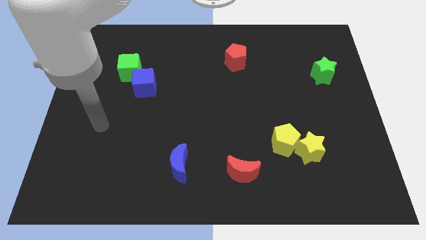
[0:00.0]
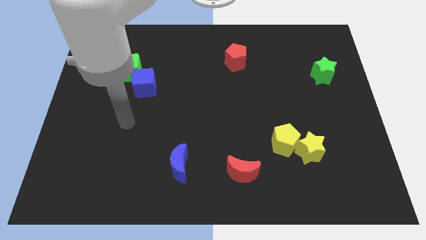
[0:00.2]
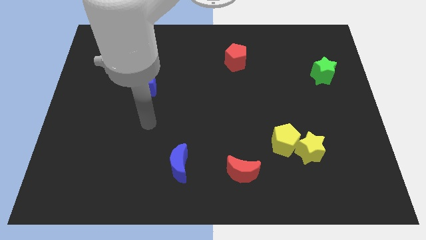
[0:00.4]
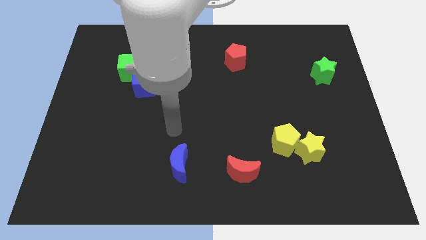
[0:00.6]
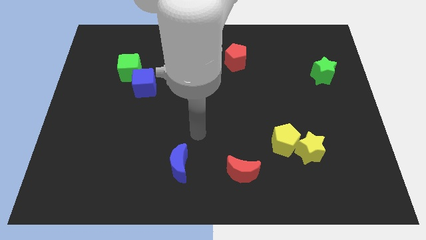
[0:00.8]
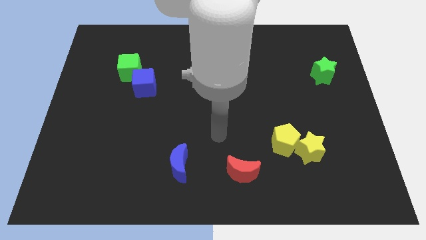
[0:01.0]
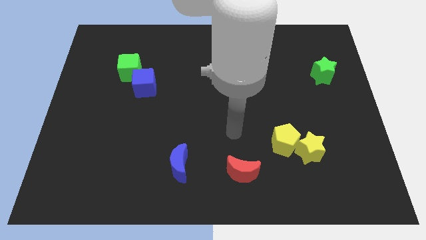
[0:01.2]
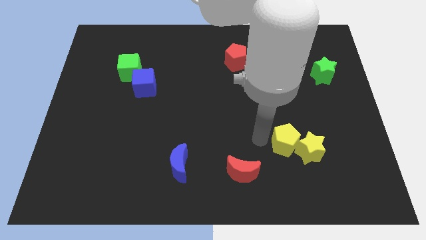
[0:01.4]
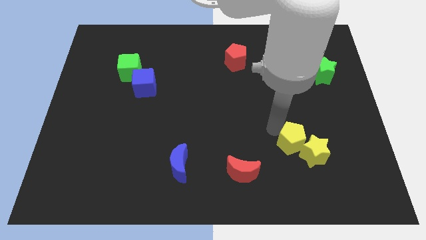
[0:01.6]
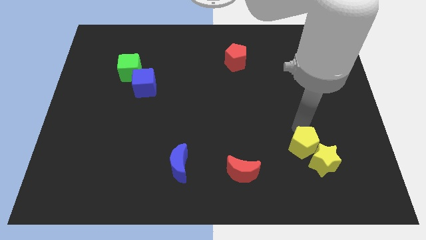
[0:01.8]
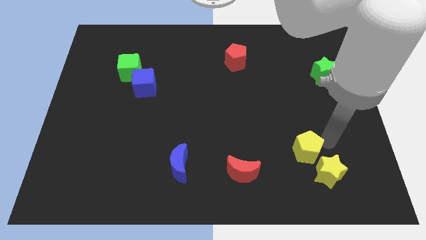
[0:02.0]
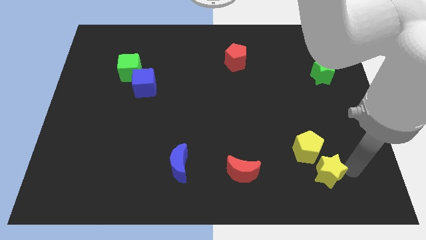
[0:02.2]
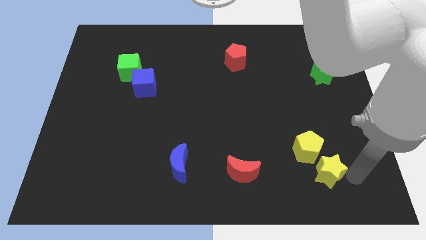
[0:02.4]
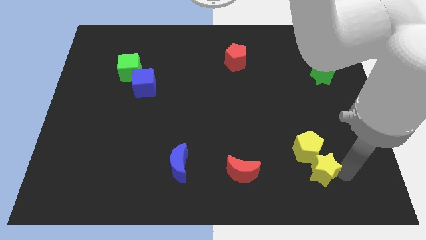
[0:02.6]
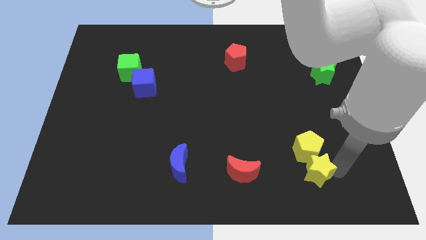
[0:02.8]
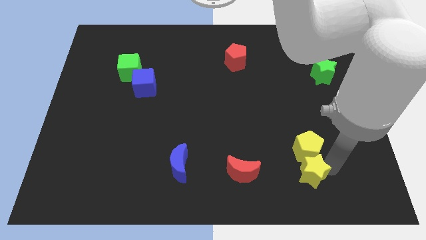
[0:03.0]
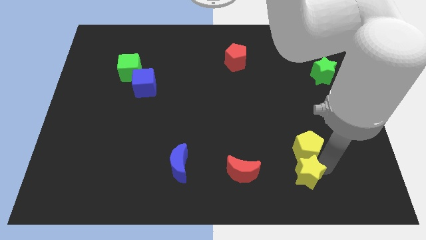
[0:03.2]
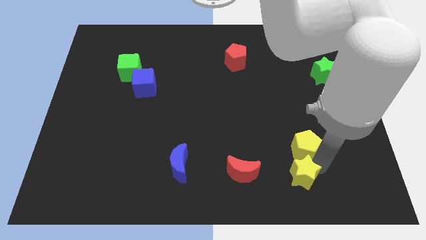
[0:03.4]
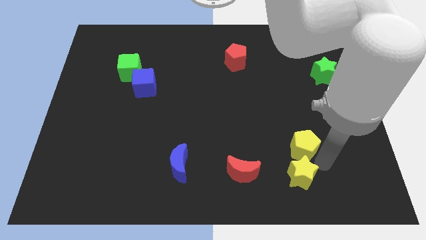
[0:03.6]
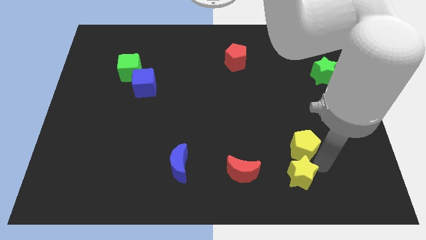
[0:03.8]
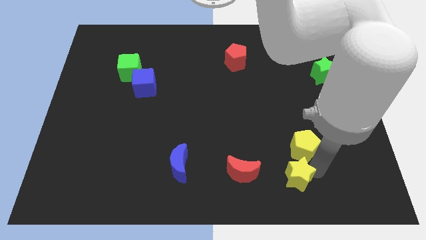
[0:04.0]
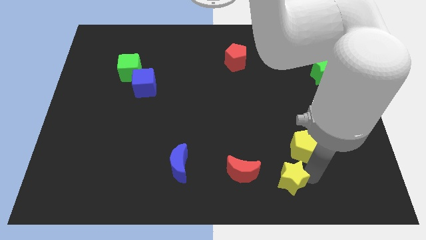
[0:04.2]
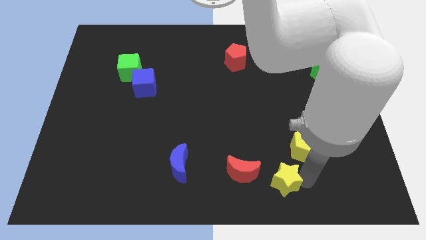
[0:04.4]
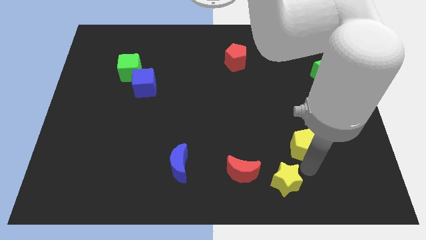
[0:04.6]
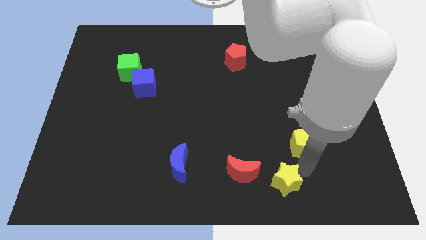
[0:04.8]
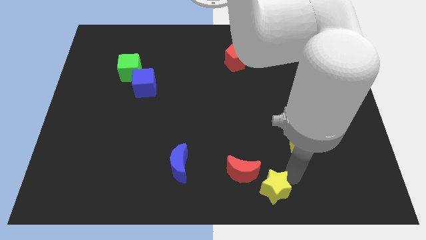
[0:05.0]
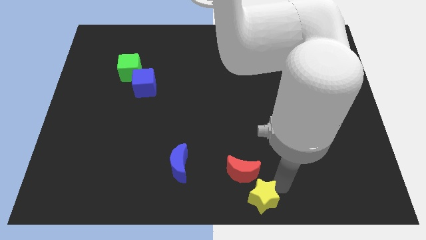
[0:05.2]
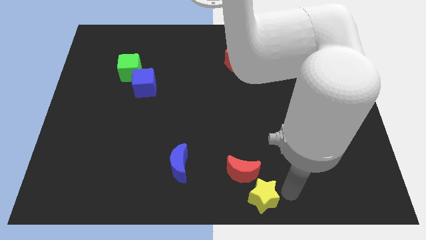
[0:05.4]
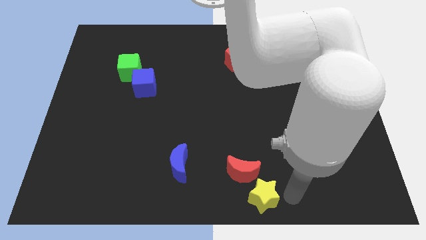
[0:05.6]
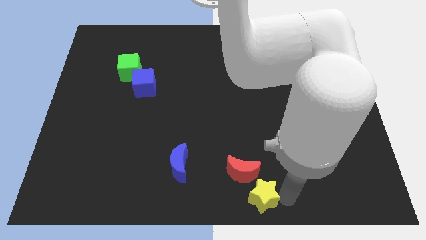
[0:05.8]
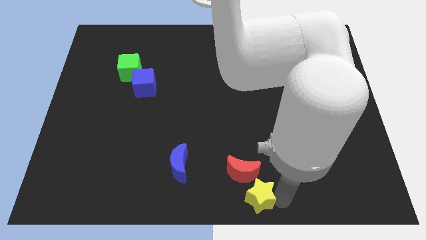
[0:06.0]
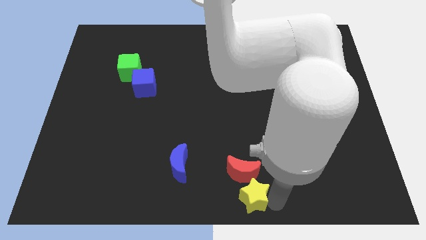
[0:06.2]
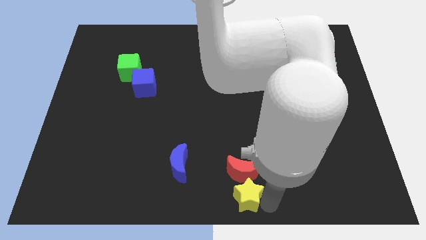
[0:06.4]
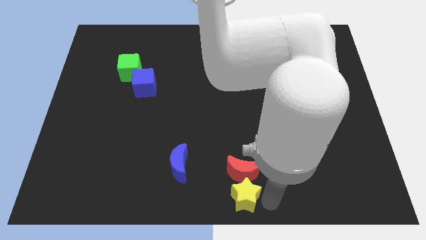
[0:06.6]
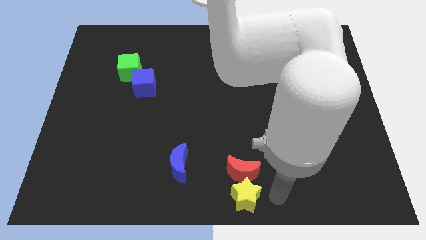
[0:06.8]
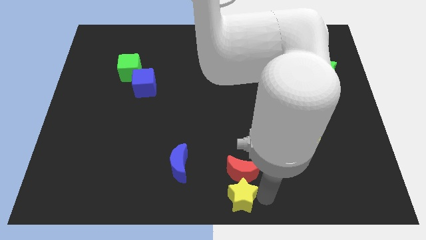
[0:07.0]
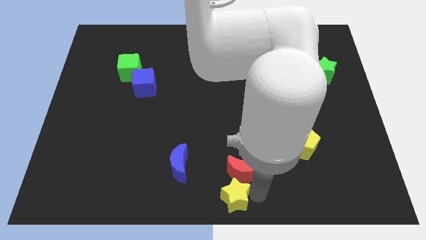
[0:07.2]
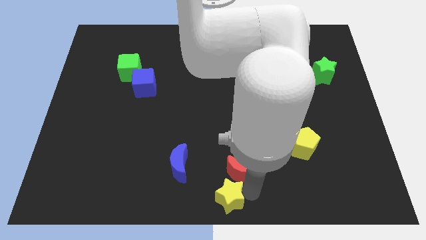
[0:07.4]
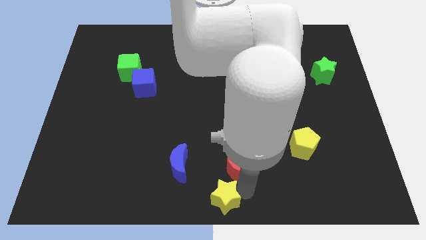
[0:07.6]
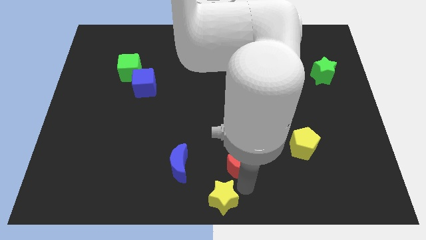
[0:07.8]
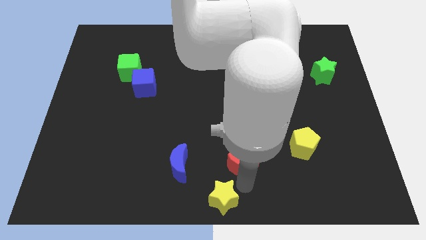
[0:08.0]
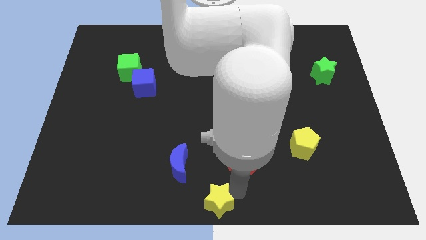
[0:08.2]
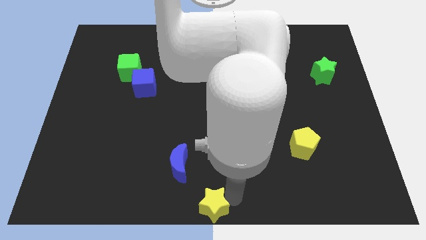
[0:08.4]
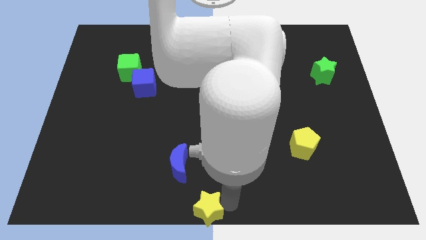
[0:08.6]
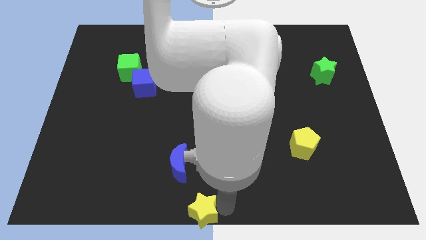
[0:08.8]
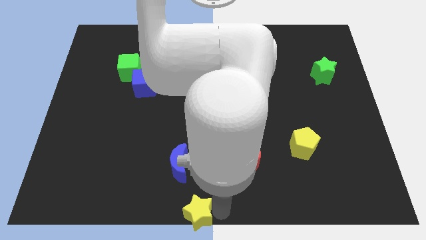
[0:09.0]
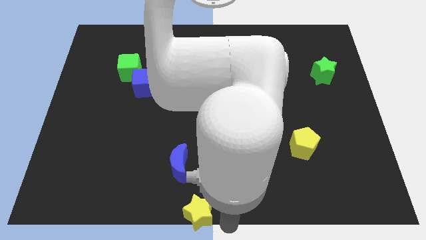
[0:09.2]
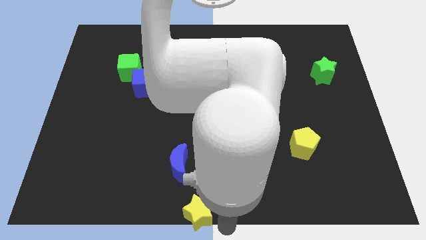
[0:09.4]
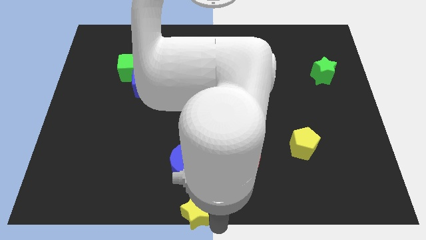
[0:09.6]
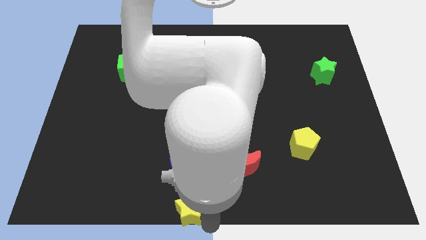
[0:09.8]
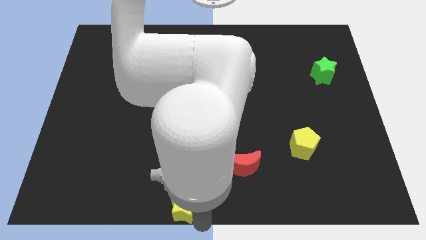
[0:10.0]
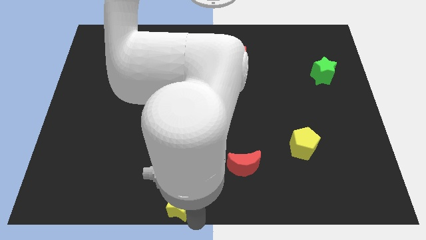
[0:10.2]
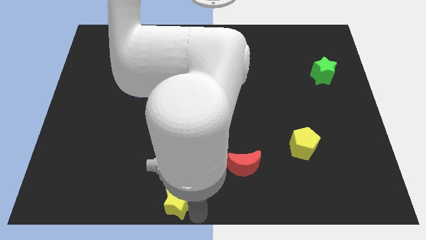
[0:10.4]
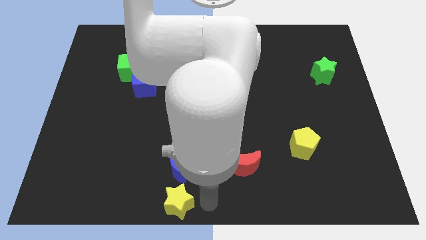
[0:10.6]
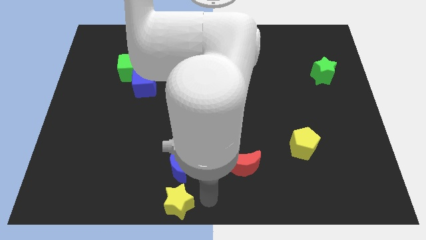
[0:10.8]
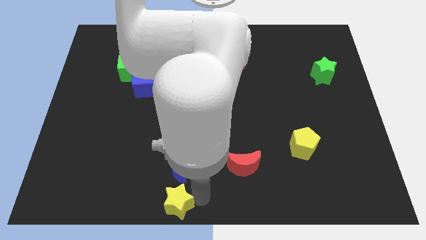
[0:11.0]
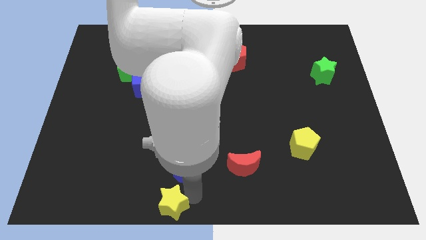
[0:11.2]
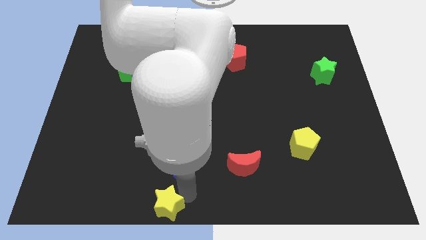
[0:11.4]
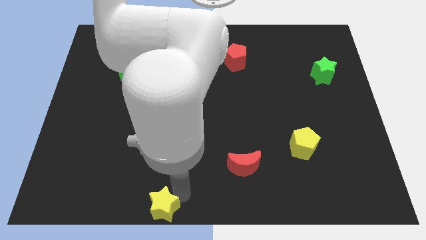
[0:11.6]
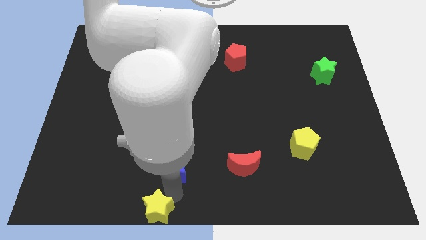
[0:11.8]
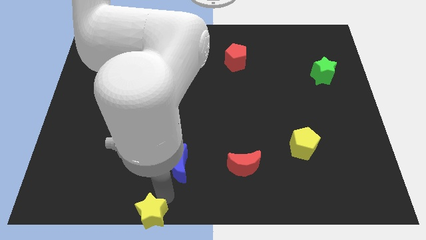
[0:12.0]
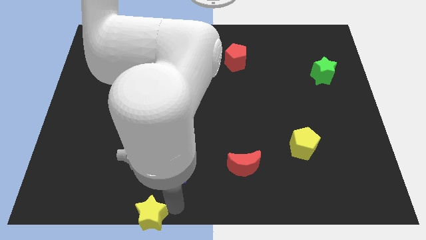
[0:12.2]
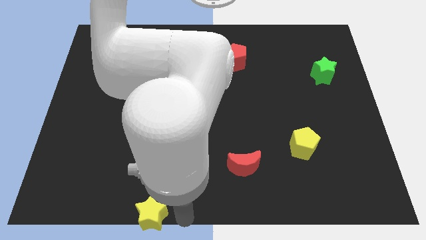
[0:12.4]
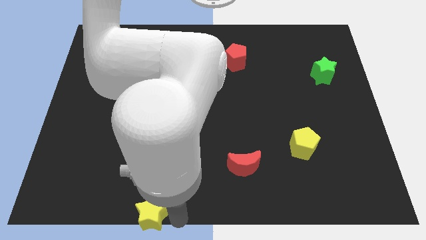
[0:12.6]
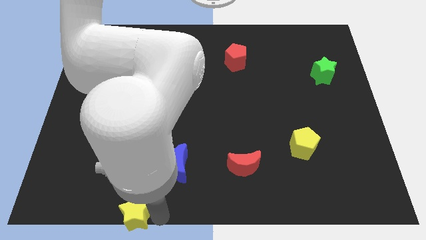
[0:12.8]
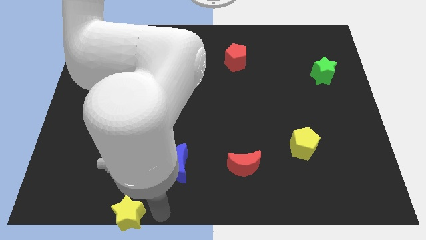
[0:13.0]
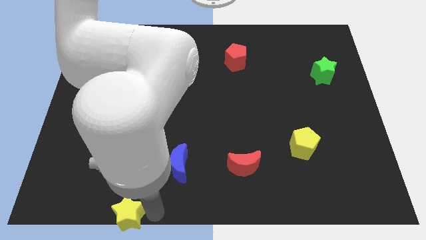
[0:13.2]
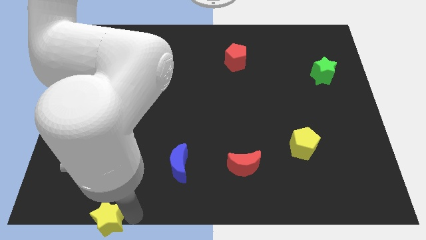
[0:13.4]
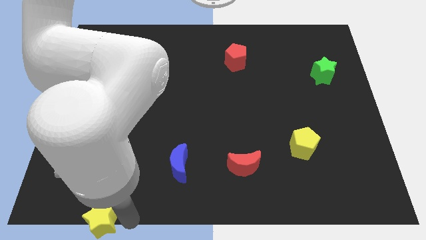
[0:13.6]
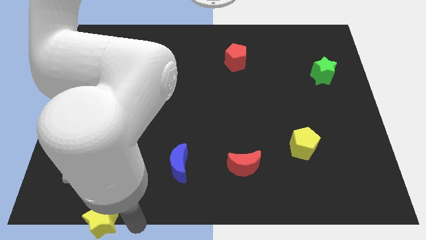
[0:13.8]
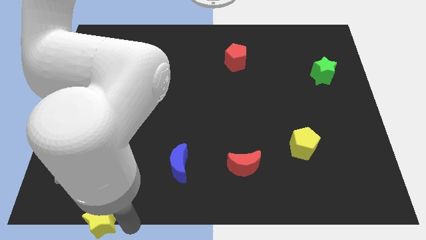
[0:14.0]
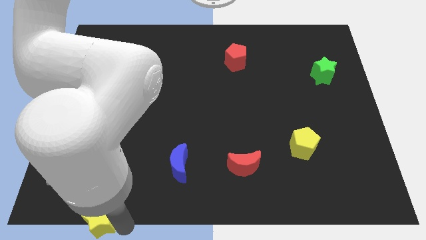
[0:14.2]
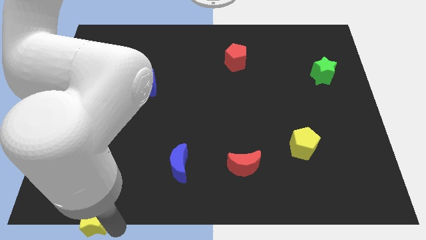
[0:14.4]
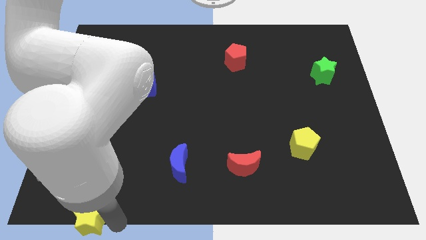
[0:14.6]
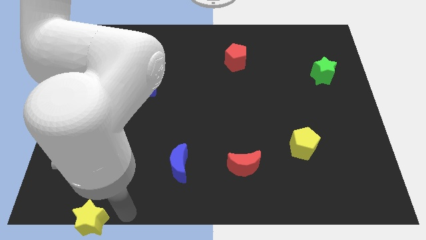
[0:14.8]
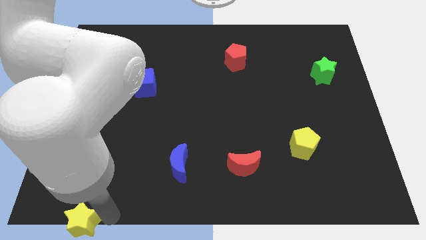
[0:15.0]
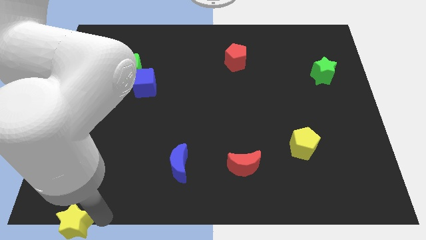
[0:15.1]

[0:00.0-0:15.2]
move the yellow star to the bottom left of the board
